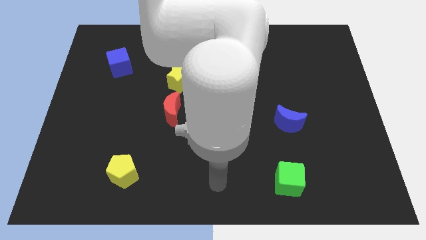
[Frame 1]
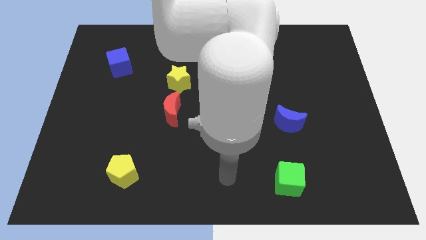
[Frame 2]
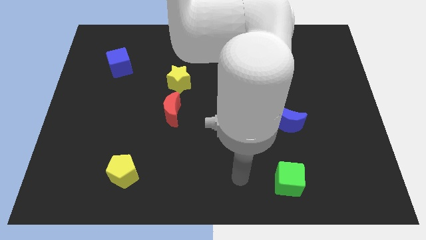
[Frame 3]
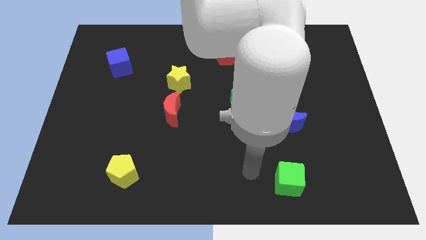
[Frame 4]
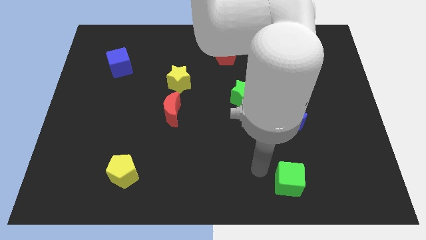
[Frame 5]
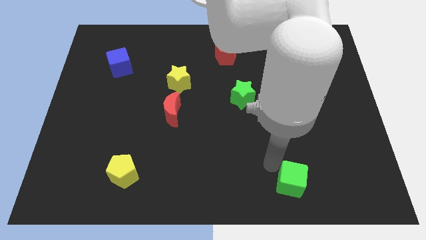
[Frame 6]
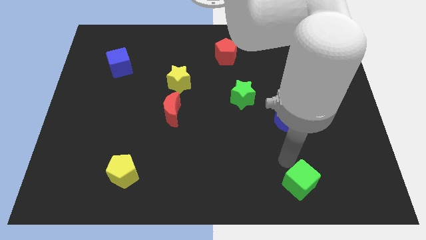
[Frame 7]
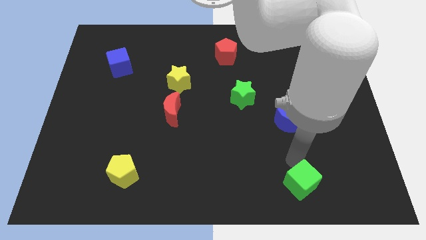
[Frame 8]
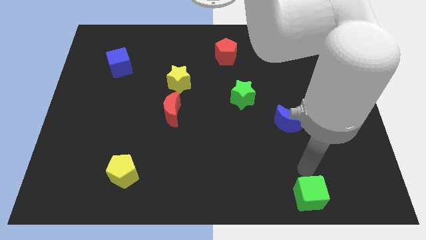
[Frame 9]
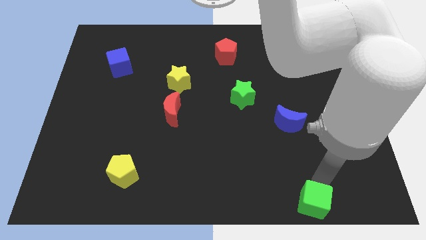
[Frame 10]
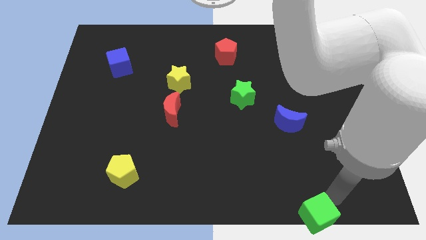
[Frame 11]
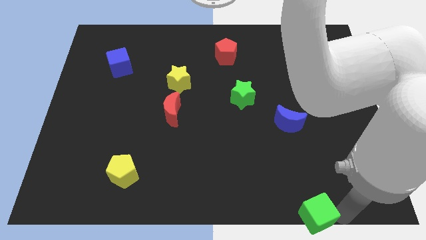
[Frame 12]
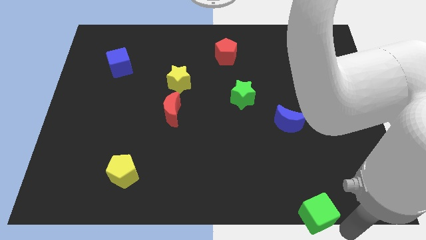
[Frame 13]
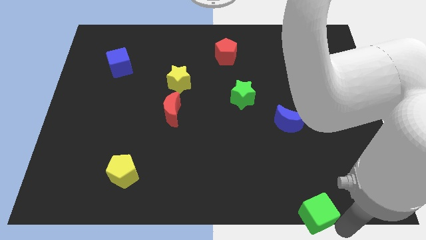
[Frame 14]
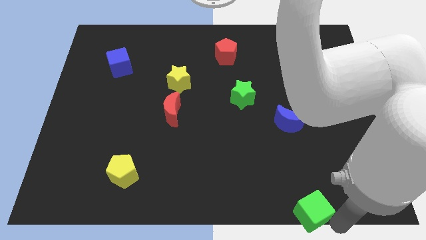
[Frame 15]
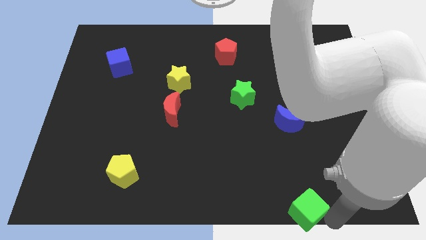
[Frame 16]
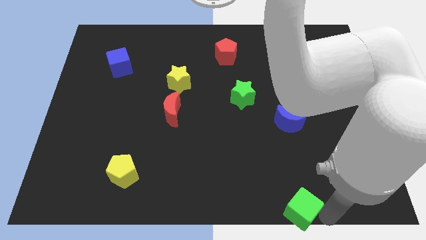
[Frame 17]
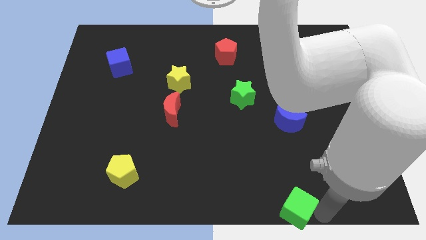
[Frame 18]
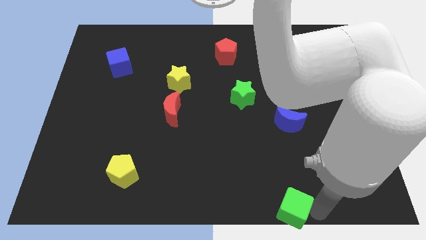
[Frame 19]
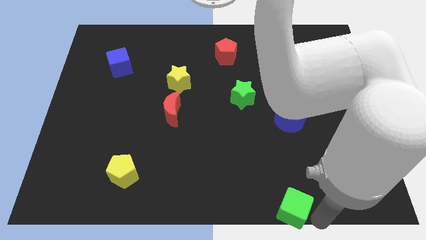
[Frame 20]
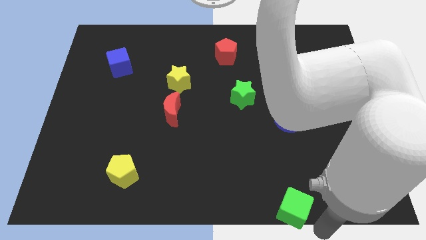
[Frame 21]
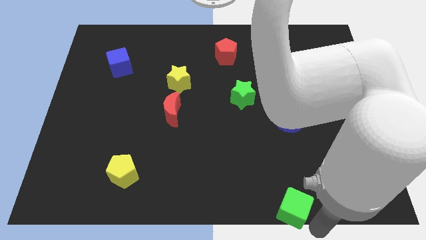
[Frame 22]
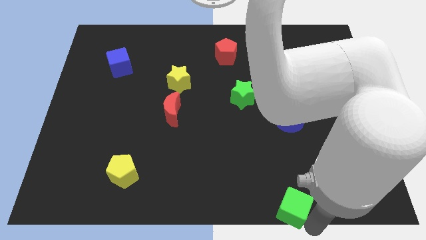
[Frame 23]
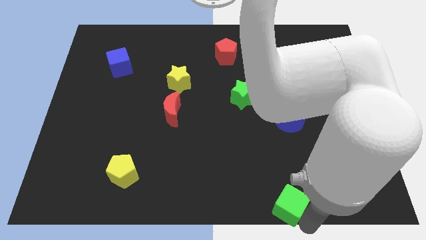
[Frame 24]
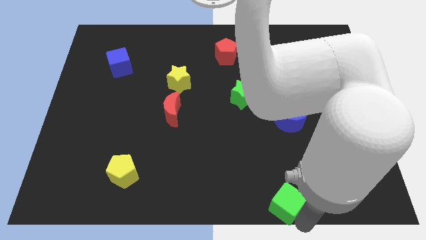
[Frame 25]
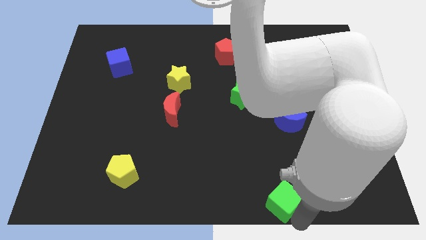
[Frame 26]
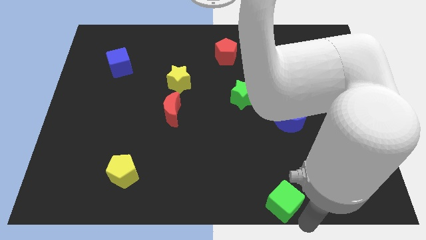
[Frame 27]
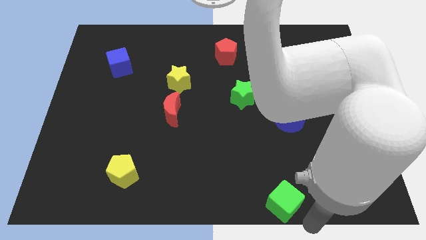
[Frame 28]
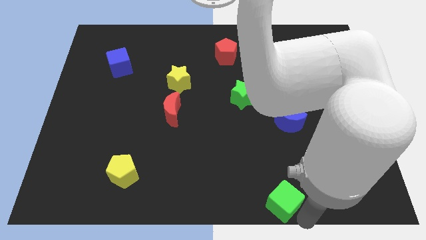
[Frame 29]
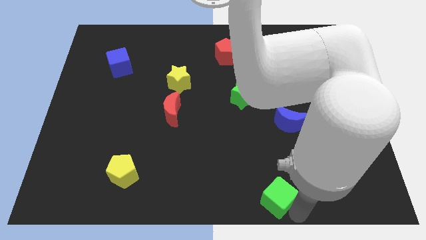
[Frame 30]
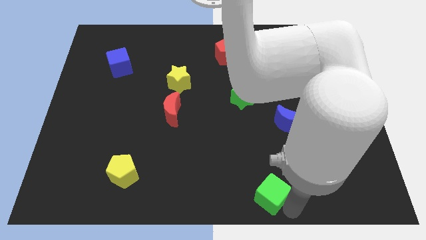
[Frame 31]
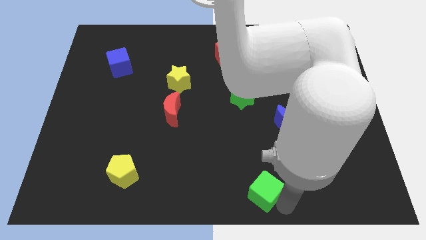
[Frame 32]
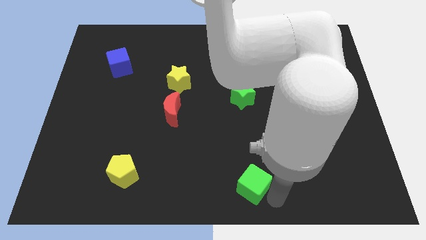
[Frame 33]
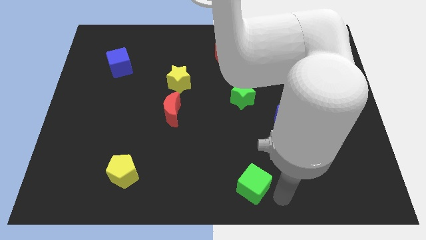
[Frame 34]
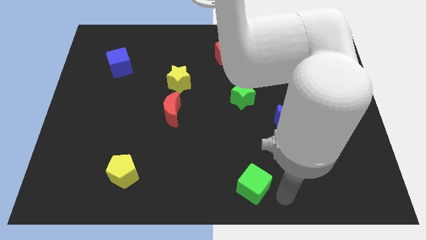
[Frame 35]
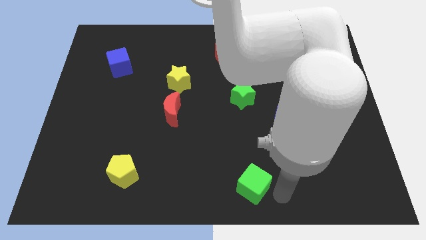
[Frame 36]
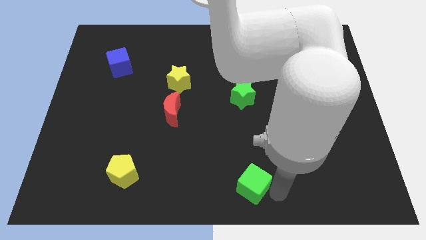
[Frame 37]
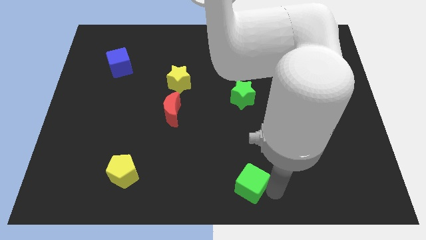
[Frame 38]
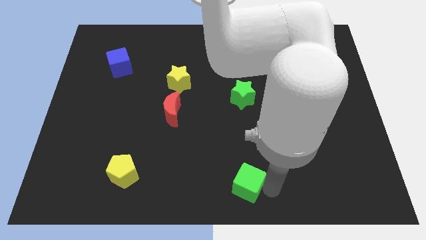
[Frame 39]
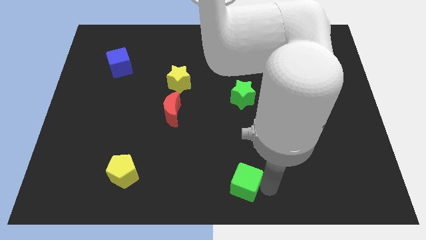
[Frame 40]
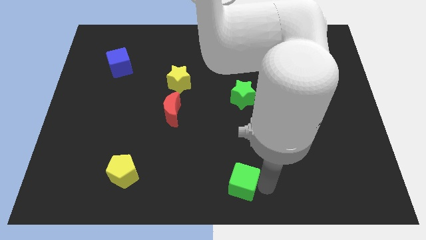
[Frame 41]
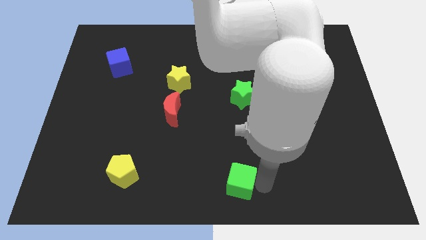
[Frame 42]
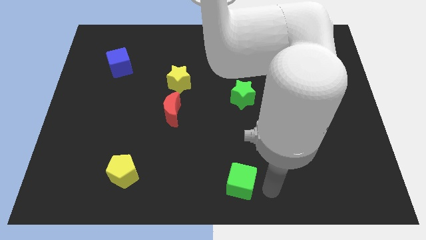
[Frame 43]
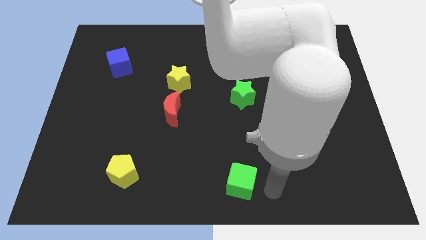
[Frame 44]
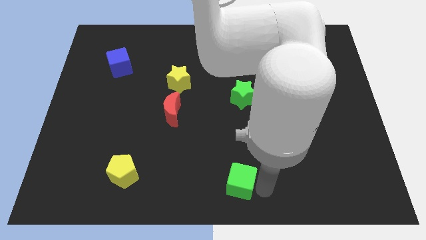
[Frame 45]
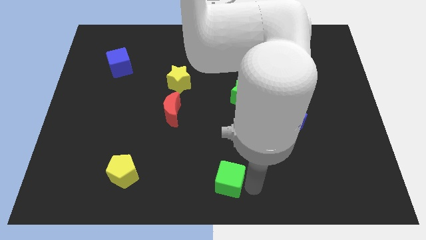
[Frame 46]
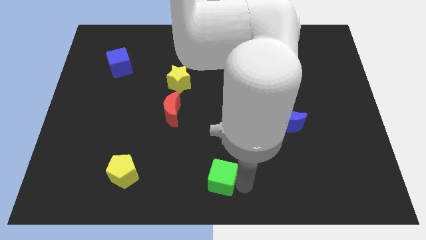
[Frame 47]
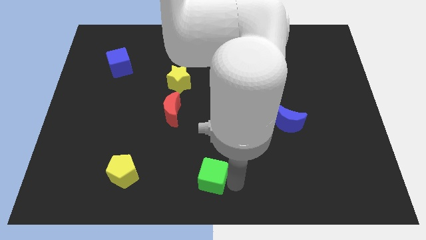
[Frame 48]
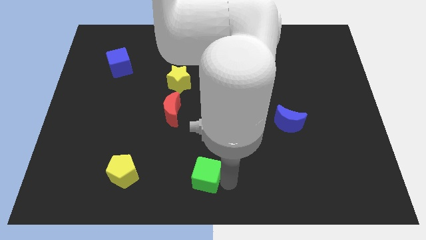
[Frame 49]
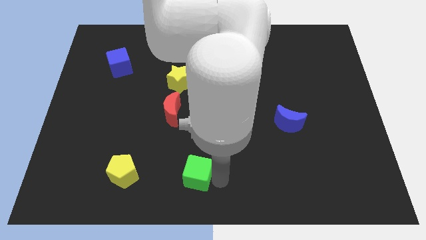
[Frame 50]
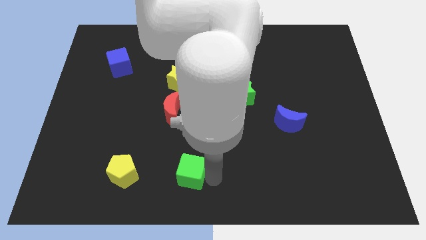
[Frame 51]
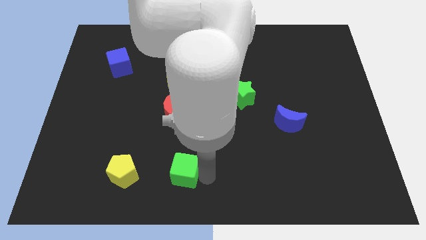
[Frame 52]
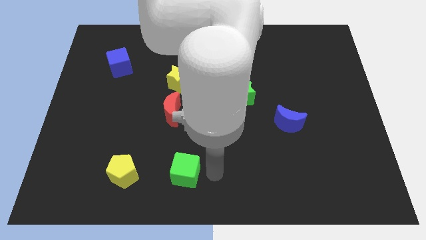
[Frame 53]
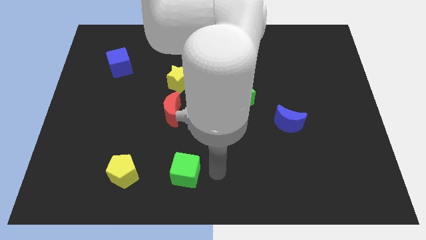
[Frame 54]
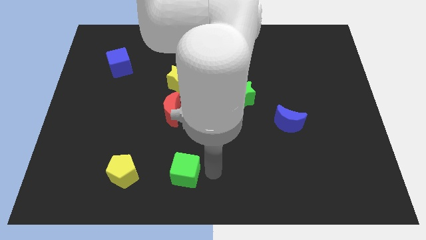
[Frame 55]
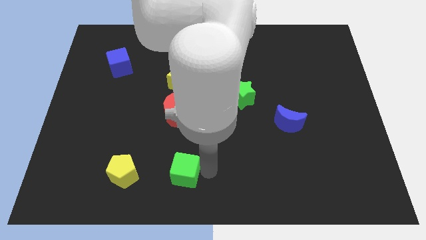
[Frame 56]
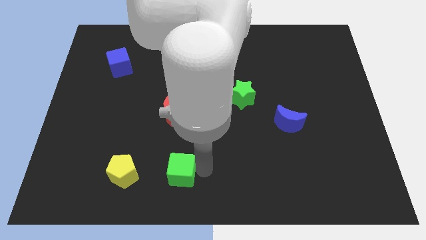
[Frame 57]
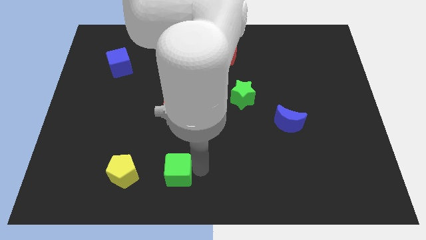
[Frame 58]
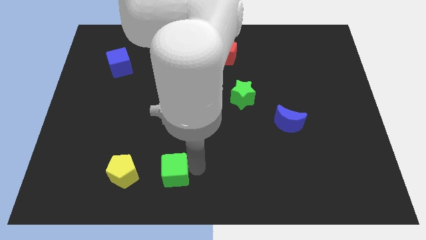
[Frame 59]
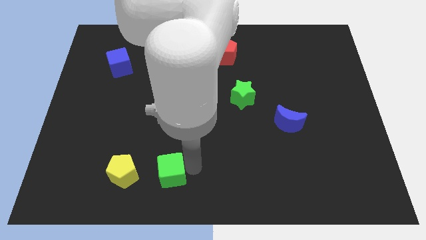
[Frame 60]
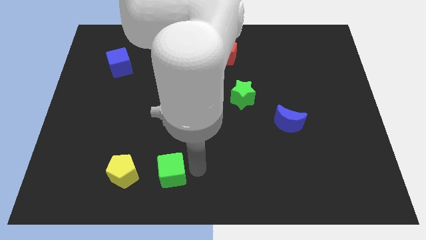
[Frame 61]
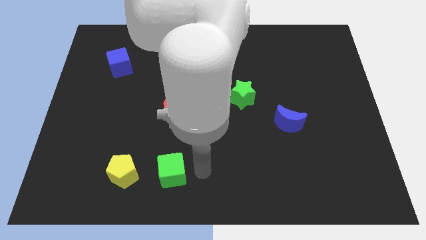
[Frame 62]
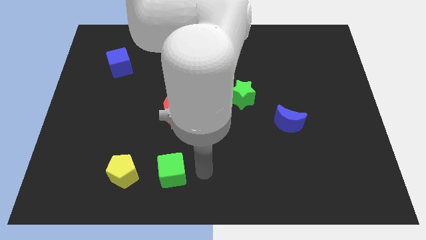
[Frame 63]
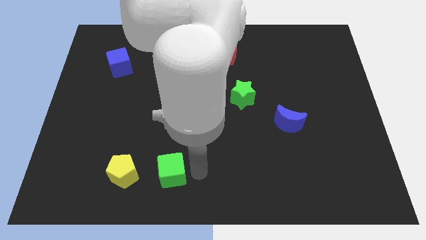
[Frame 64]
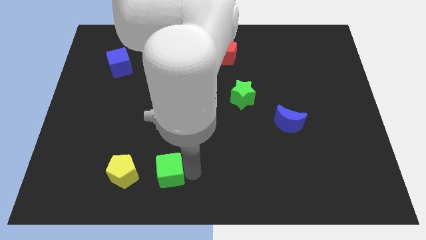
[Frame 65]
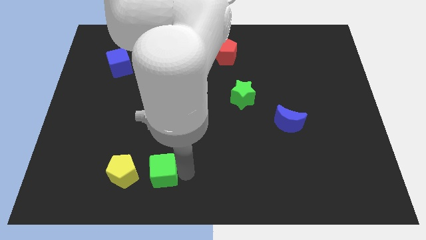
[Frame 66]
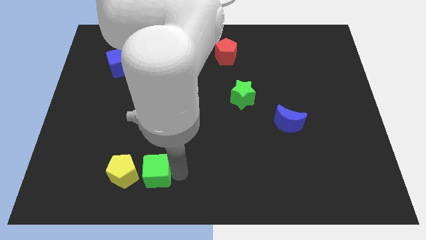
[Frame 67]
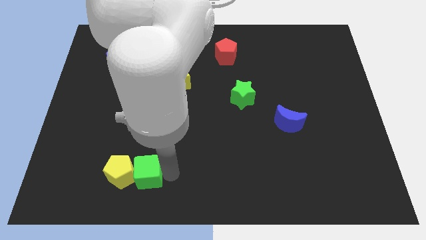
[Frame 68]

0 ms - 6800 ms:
put the green cube to the yellow pentagon

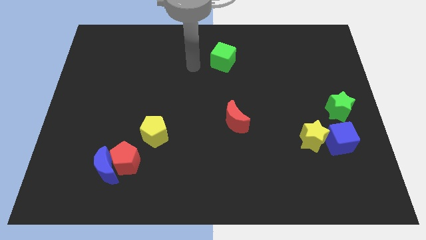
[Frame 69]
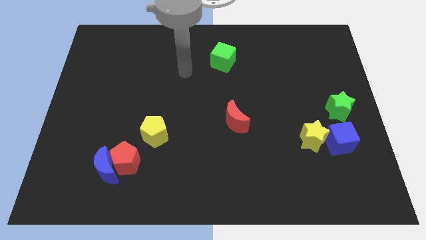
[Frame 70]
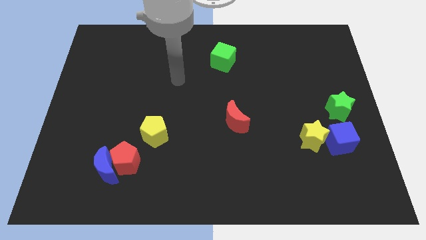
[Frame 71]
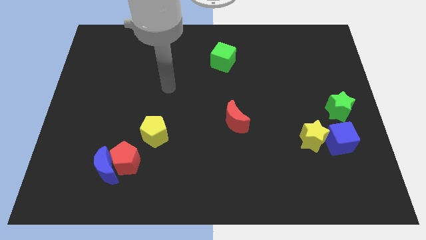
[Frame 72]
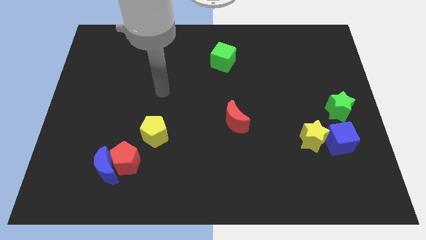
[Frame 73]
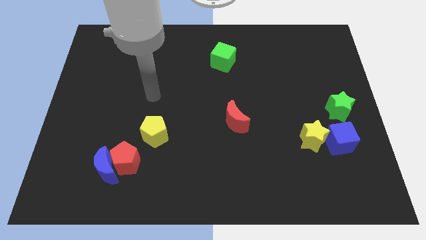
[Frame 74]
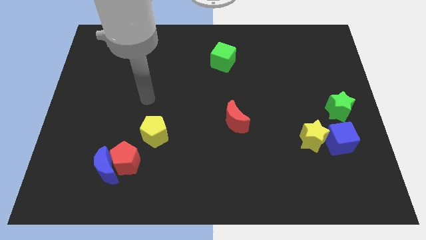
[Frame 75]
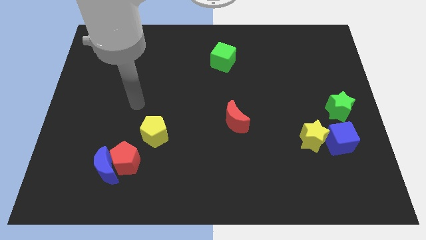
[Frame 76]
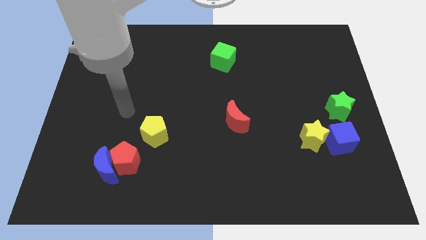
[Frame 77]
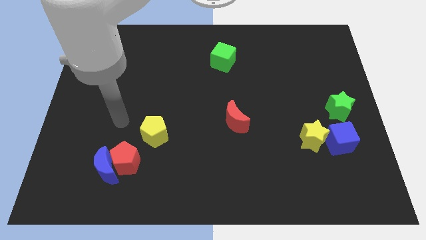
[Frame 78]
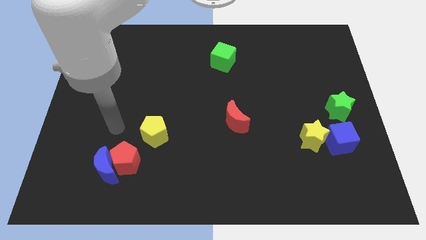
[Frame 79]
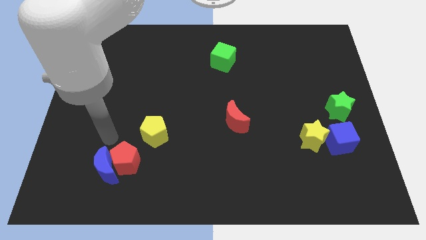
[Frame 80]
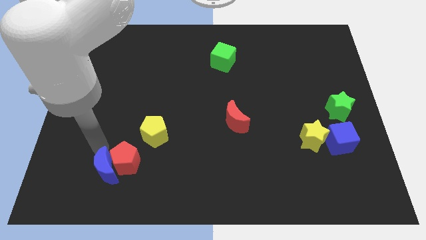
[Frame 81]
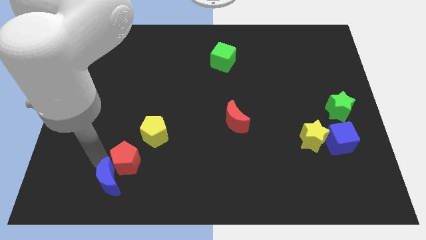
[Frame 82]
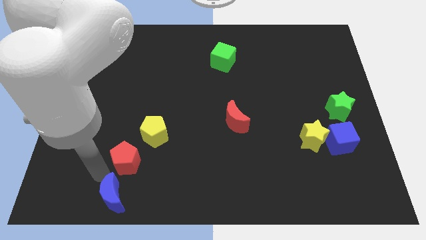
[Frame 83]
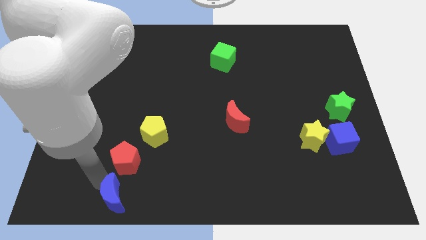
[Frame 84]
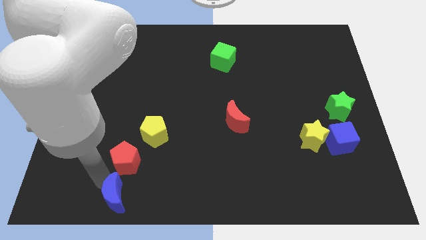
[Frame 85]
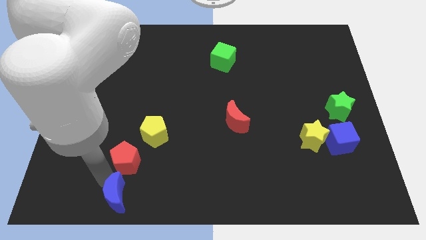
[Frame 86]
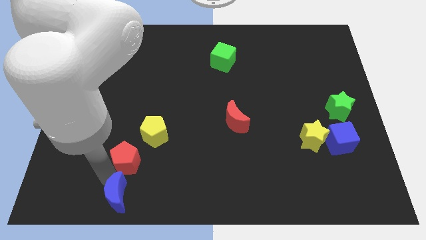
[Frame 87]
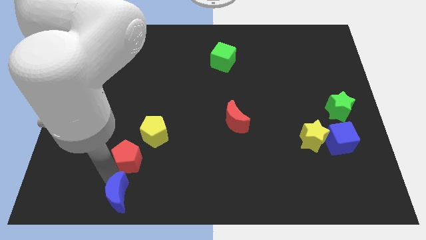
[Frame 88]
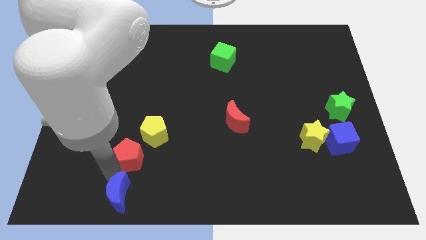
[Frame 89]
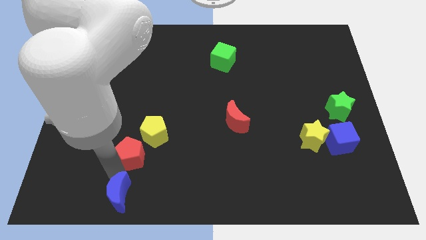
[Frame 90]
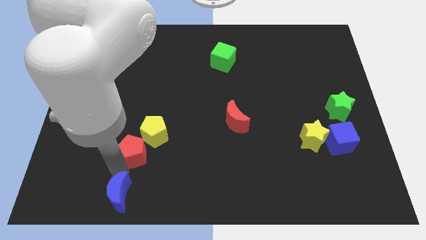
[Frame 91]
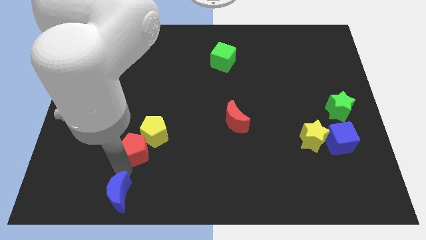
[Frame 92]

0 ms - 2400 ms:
slide the red pentagon to the yellow pentagon
